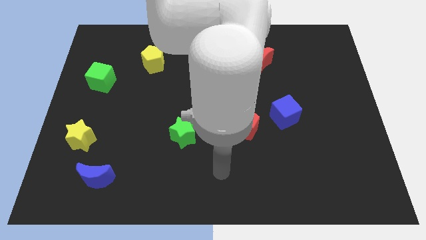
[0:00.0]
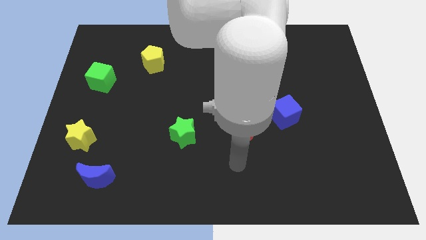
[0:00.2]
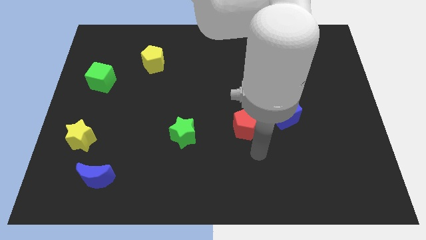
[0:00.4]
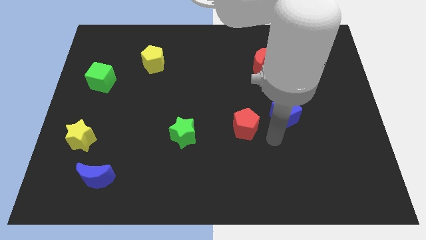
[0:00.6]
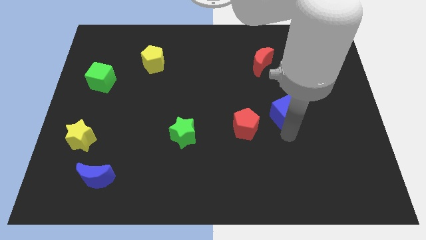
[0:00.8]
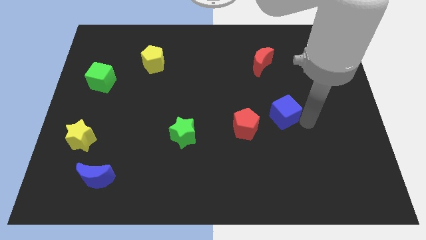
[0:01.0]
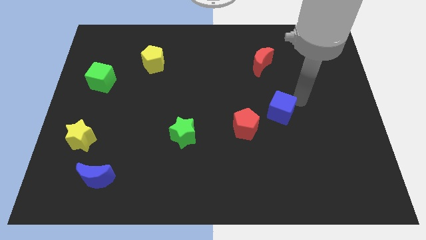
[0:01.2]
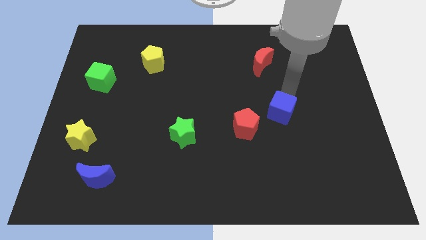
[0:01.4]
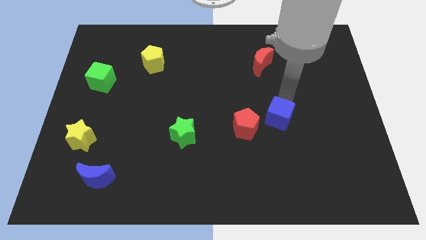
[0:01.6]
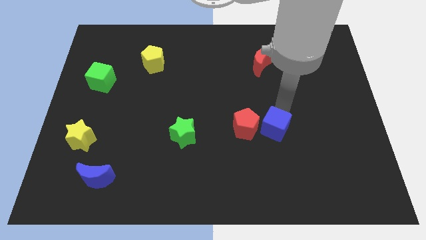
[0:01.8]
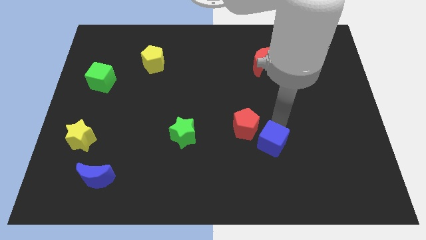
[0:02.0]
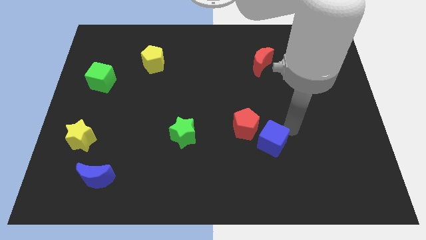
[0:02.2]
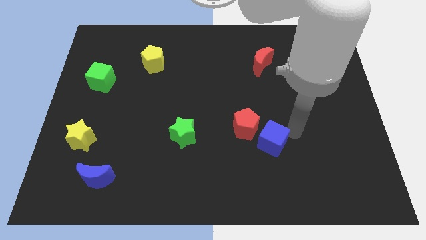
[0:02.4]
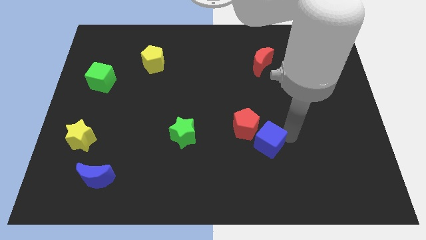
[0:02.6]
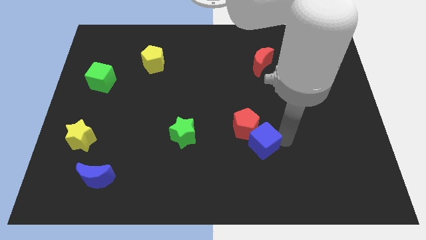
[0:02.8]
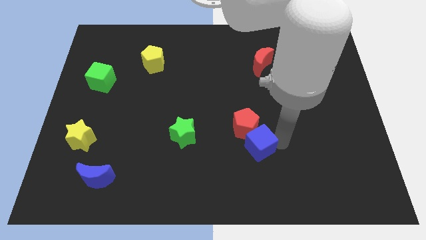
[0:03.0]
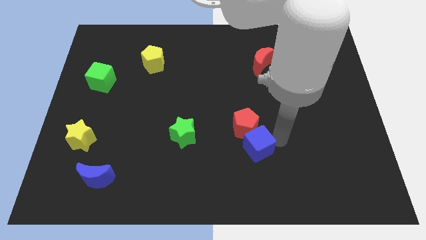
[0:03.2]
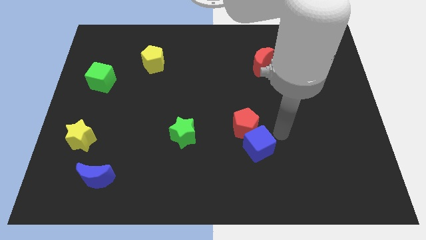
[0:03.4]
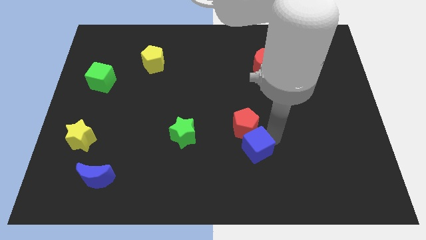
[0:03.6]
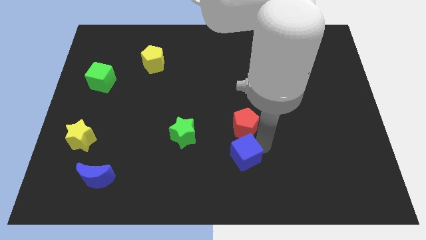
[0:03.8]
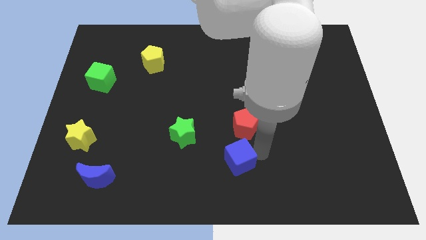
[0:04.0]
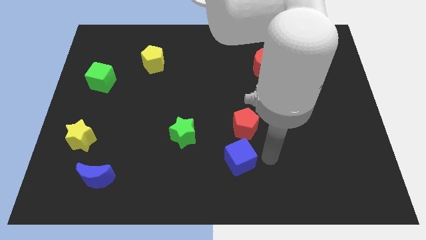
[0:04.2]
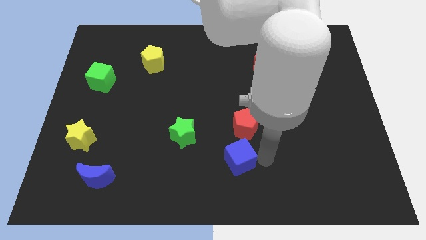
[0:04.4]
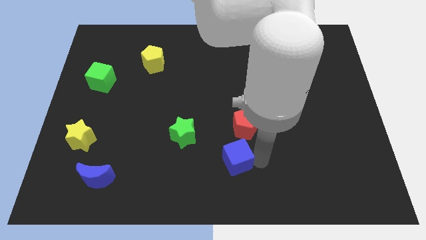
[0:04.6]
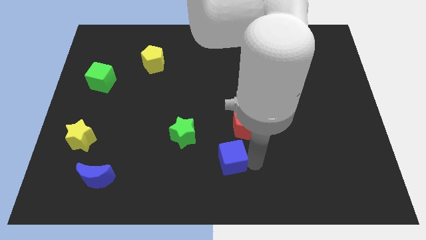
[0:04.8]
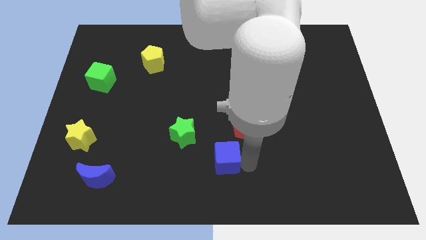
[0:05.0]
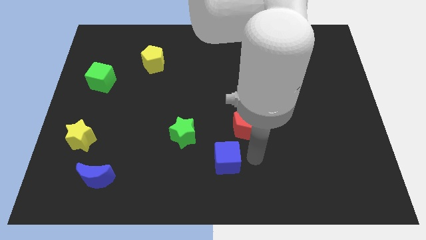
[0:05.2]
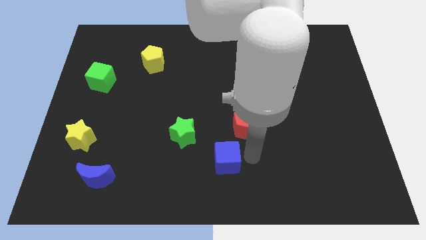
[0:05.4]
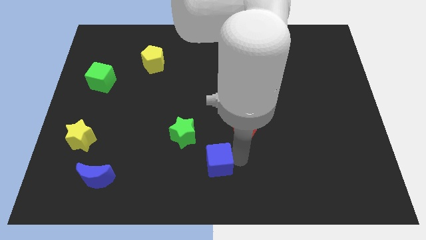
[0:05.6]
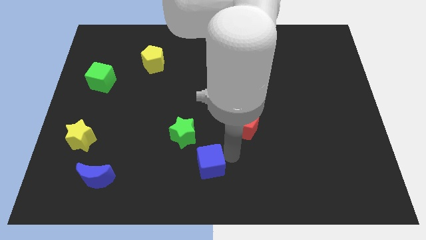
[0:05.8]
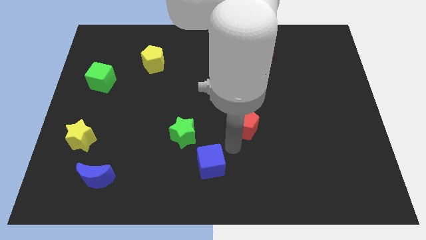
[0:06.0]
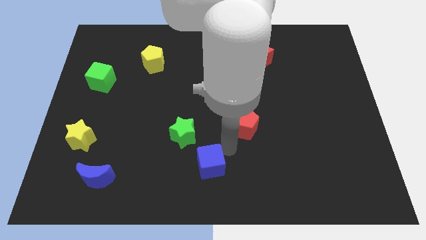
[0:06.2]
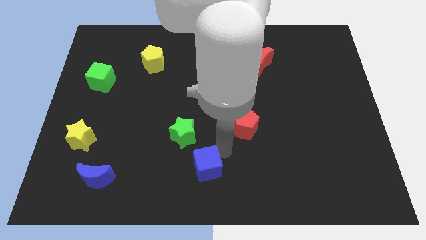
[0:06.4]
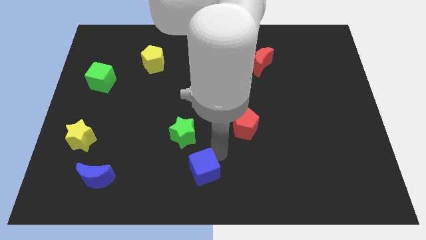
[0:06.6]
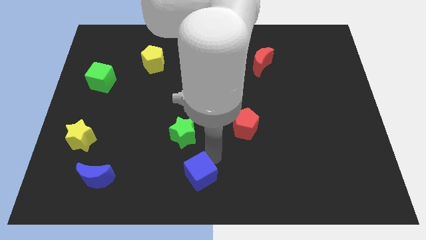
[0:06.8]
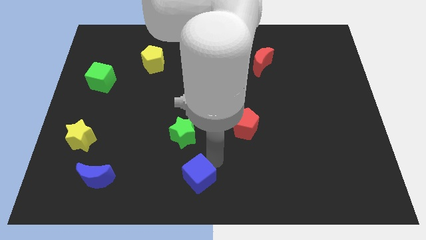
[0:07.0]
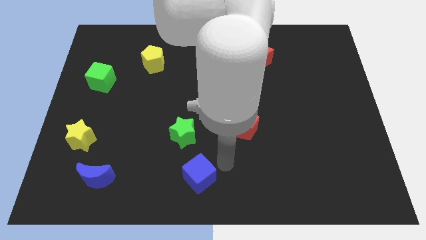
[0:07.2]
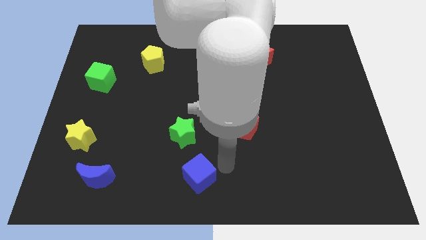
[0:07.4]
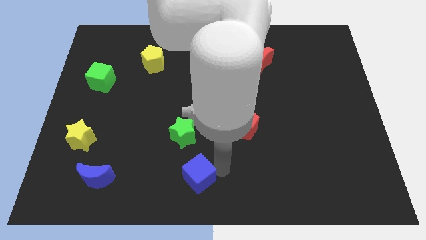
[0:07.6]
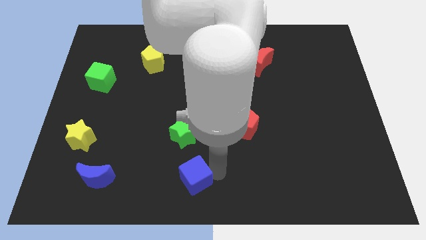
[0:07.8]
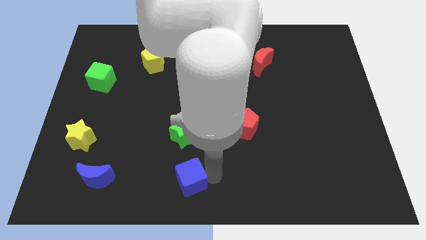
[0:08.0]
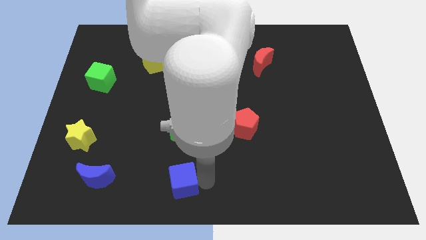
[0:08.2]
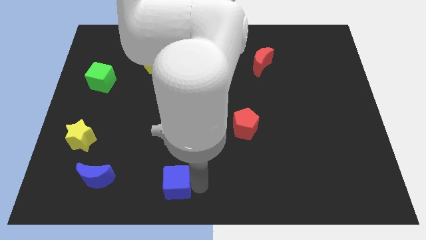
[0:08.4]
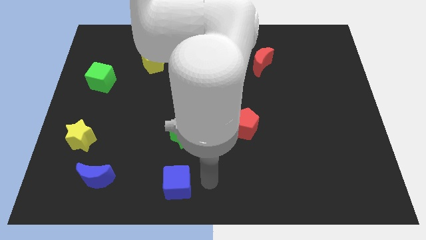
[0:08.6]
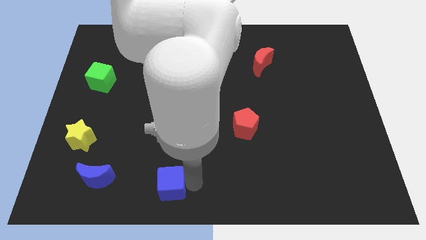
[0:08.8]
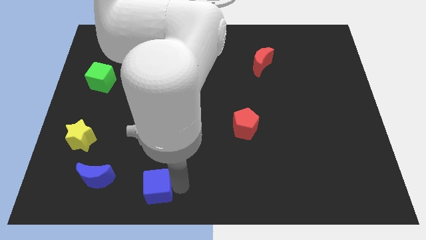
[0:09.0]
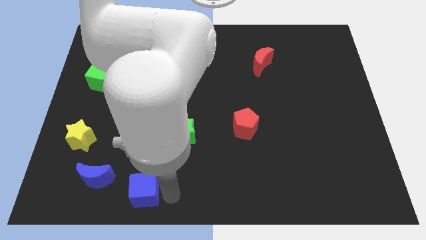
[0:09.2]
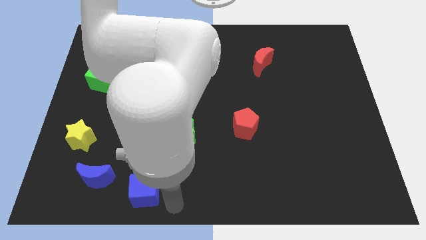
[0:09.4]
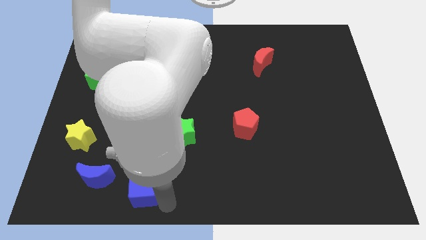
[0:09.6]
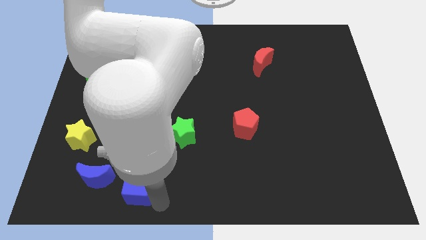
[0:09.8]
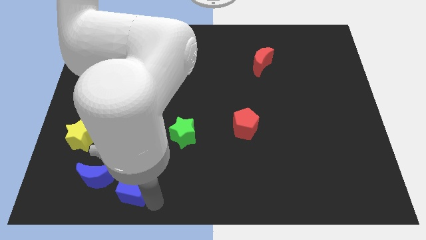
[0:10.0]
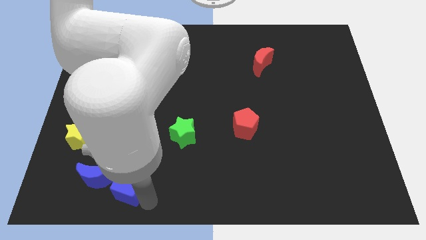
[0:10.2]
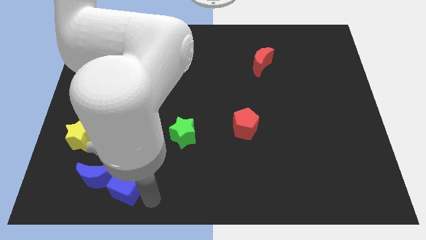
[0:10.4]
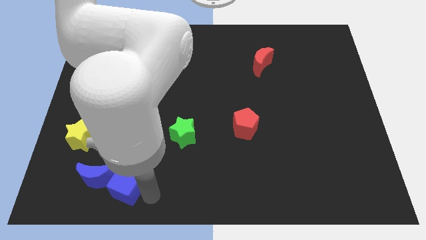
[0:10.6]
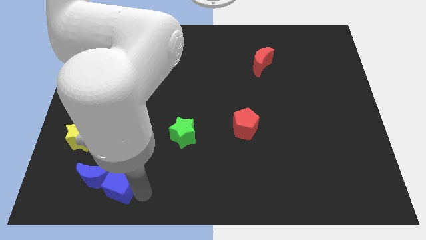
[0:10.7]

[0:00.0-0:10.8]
slide the blue cube towards the blue moon

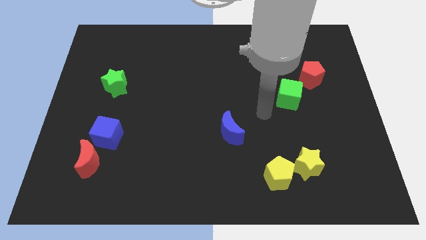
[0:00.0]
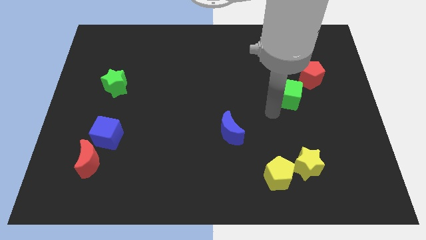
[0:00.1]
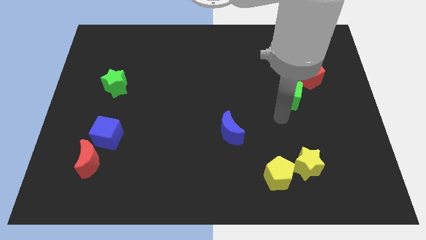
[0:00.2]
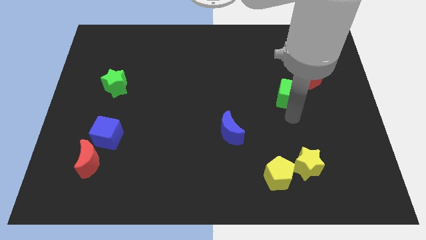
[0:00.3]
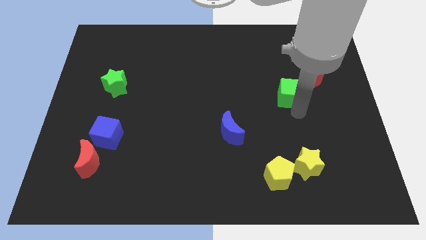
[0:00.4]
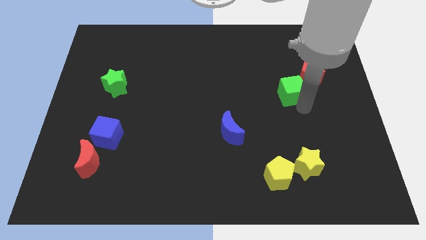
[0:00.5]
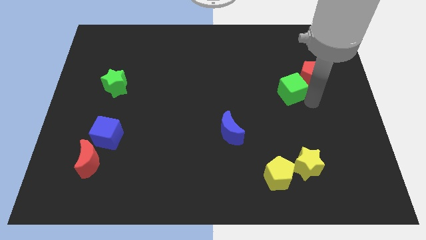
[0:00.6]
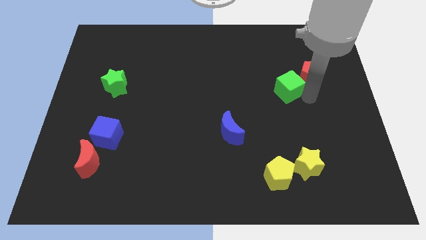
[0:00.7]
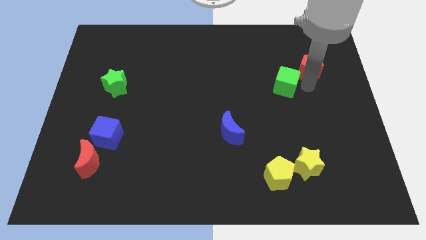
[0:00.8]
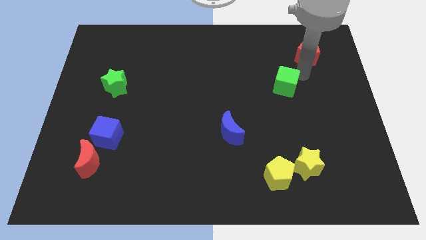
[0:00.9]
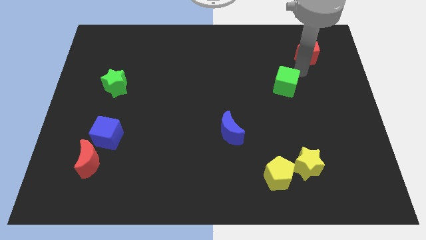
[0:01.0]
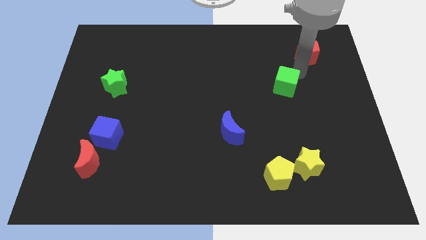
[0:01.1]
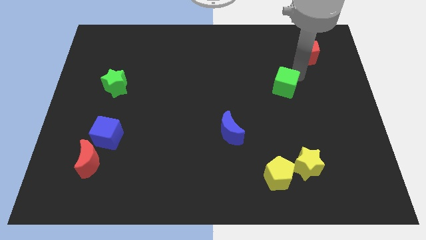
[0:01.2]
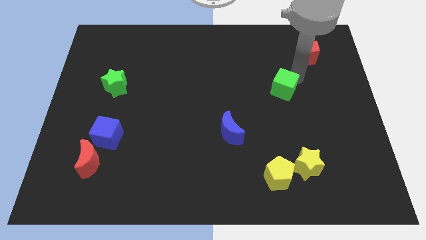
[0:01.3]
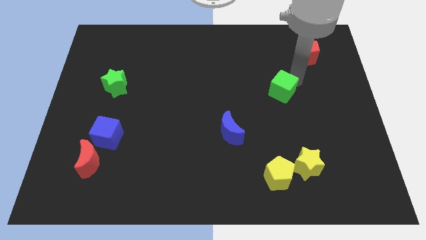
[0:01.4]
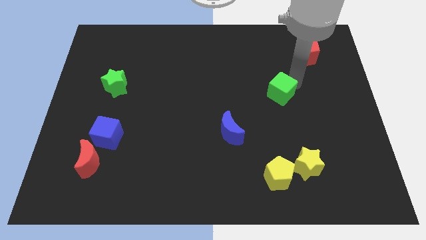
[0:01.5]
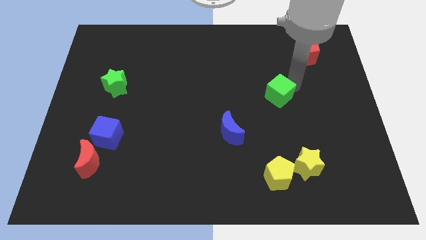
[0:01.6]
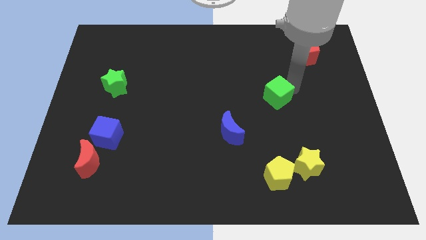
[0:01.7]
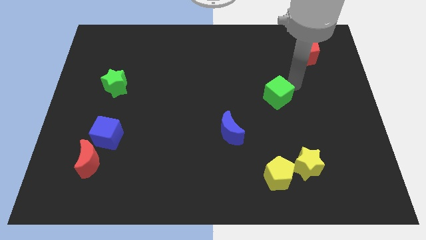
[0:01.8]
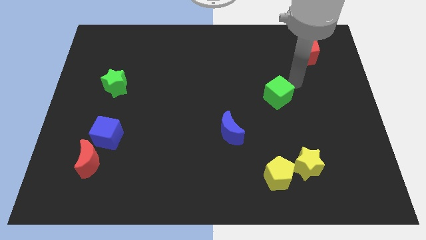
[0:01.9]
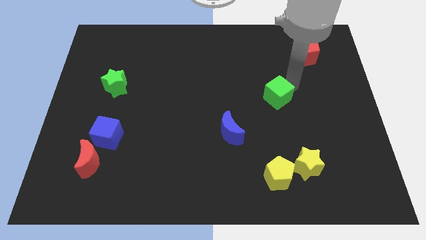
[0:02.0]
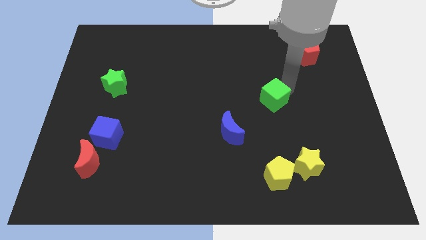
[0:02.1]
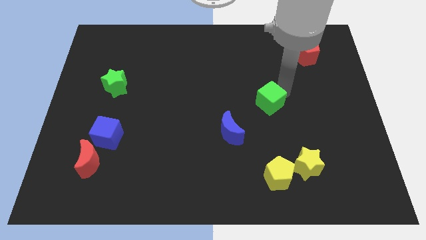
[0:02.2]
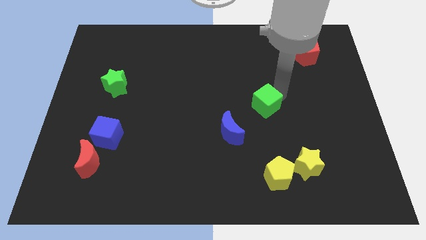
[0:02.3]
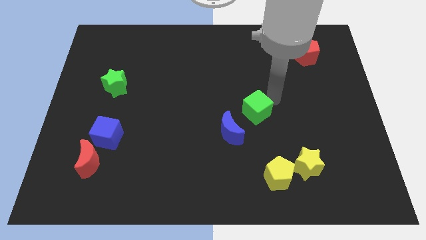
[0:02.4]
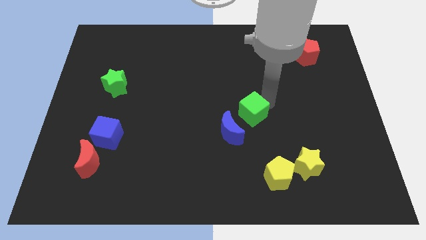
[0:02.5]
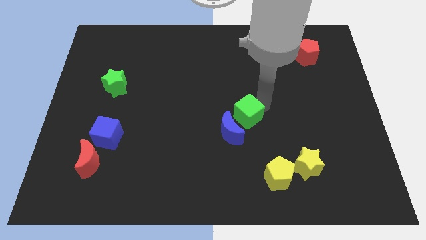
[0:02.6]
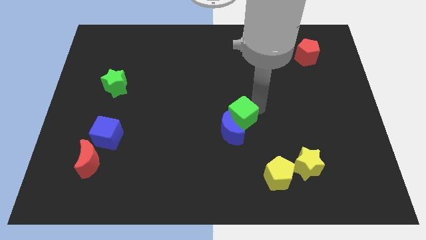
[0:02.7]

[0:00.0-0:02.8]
move the green cube to the blue moon
